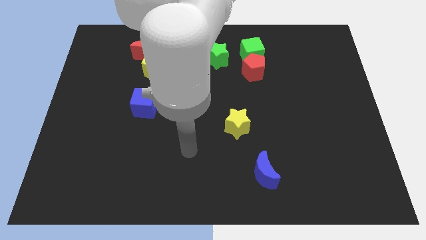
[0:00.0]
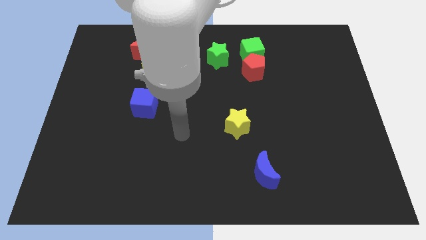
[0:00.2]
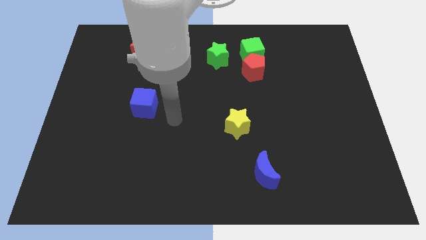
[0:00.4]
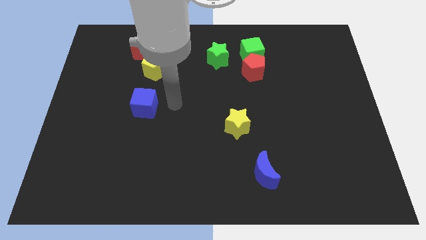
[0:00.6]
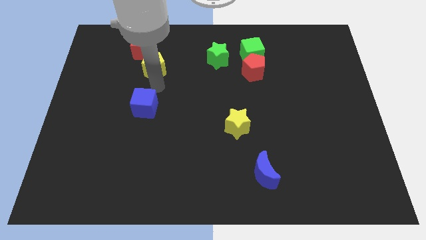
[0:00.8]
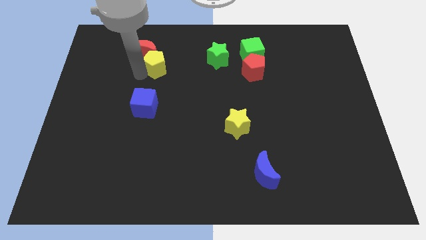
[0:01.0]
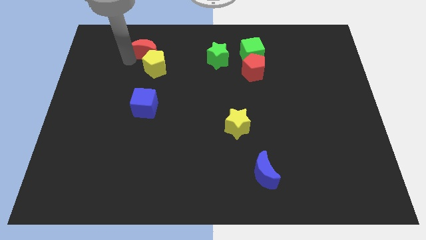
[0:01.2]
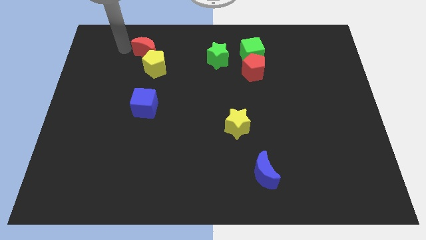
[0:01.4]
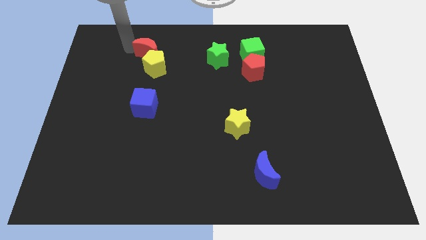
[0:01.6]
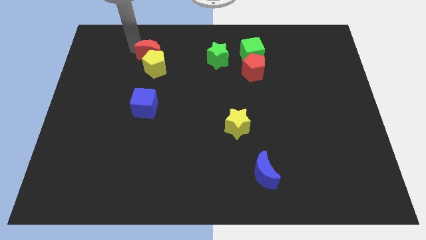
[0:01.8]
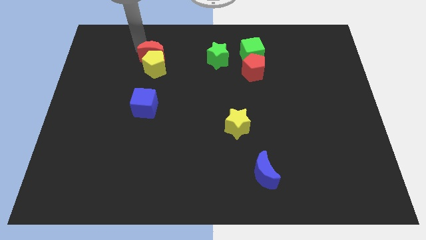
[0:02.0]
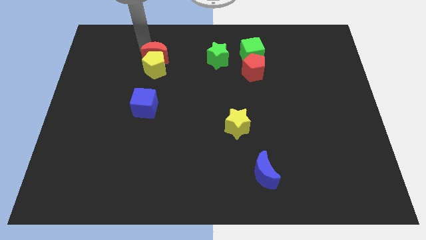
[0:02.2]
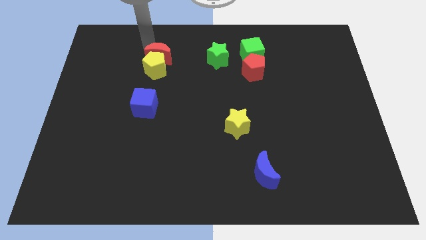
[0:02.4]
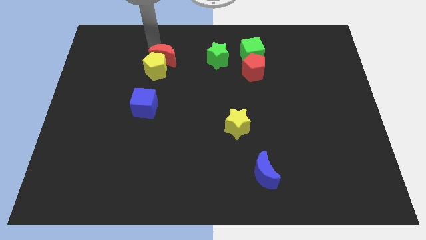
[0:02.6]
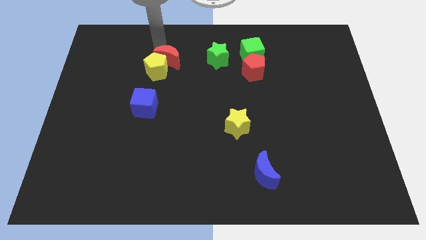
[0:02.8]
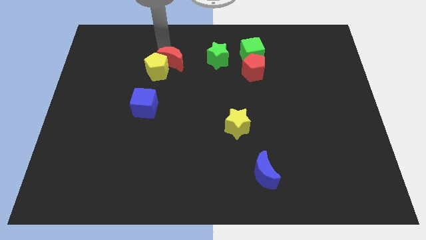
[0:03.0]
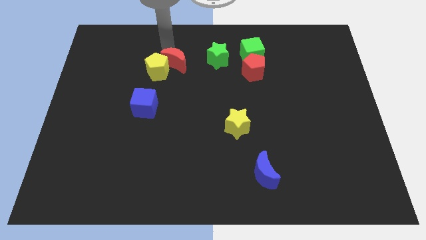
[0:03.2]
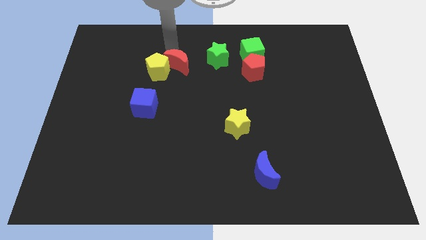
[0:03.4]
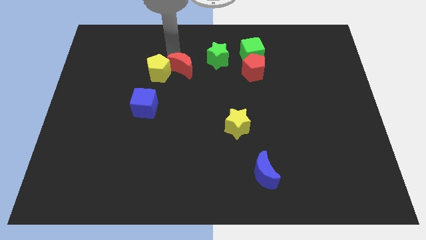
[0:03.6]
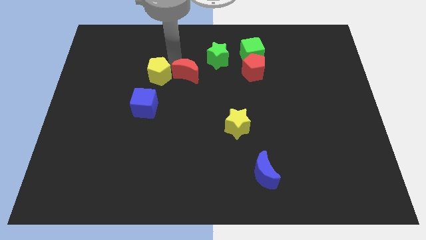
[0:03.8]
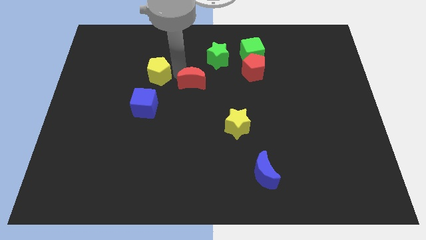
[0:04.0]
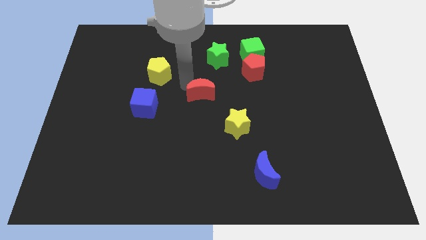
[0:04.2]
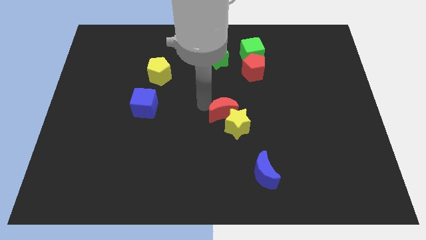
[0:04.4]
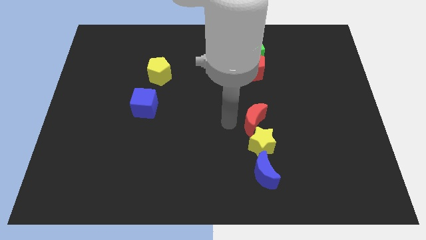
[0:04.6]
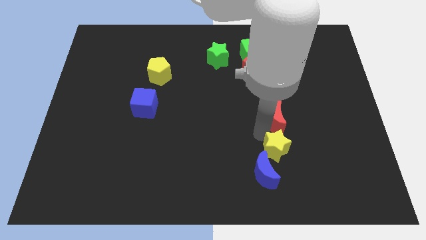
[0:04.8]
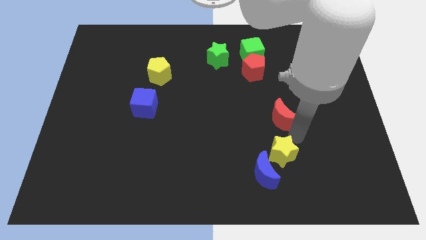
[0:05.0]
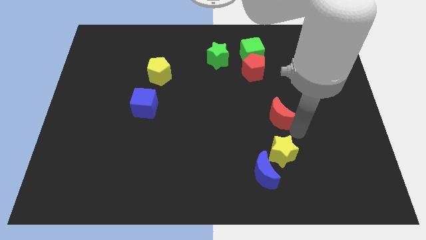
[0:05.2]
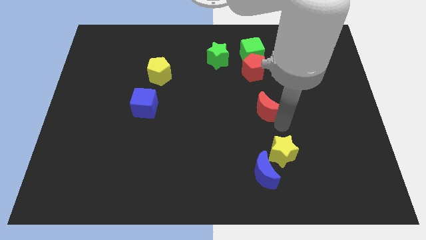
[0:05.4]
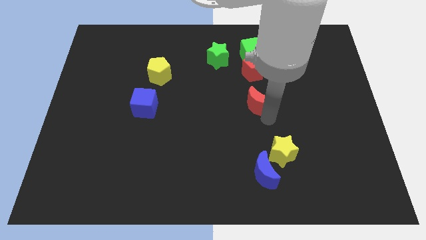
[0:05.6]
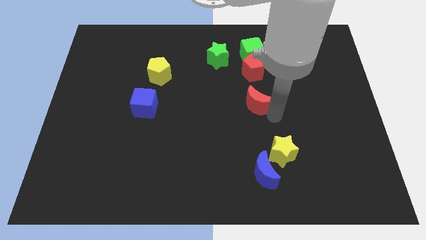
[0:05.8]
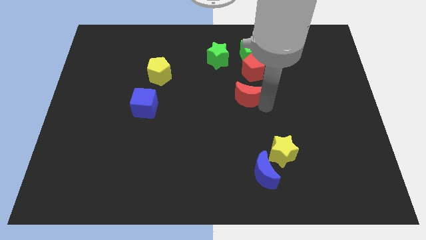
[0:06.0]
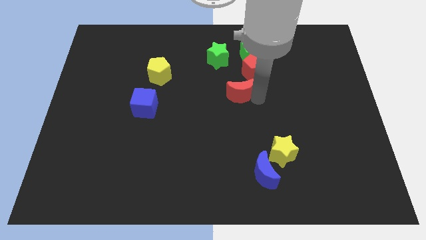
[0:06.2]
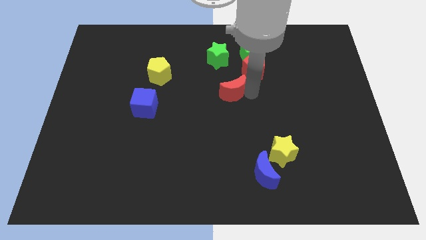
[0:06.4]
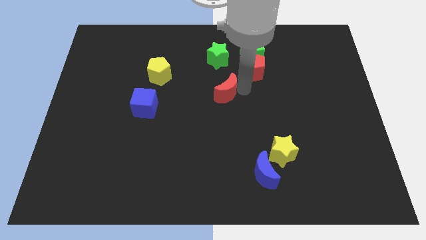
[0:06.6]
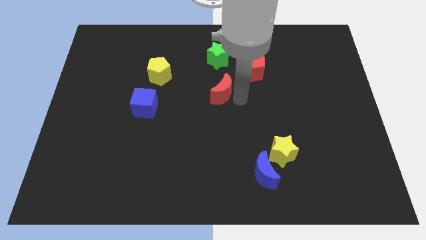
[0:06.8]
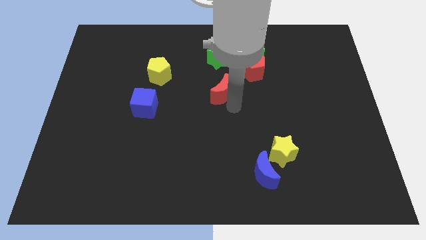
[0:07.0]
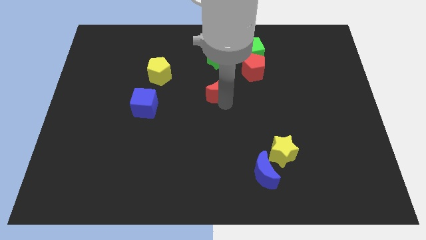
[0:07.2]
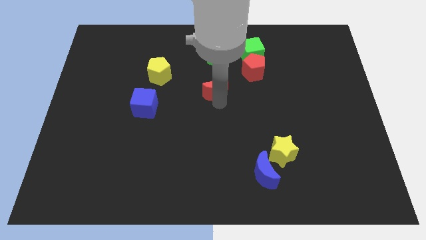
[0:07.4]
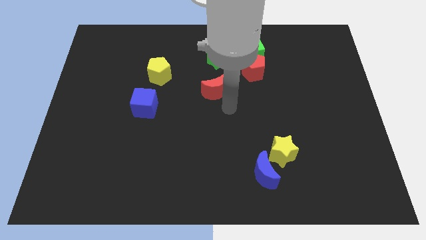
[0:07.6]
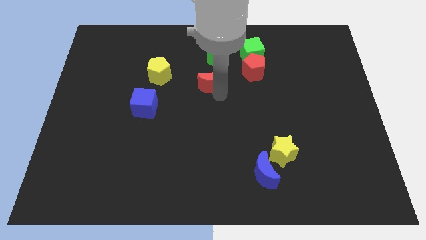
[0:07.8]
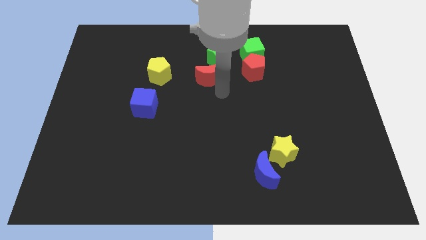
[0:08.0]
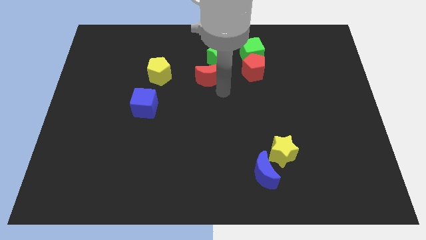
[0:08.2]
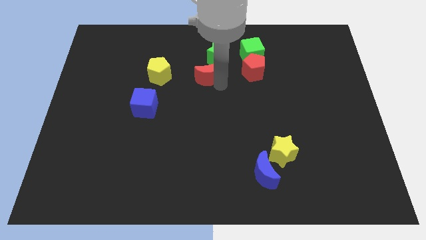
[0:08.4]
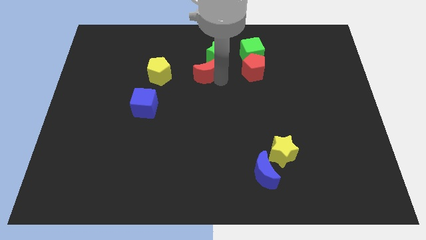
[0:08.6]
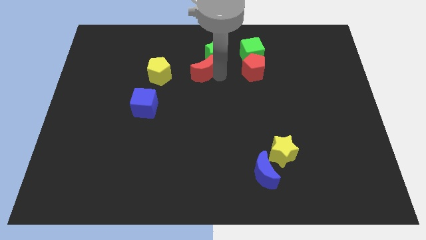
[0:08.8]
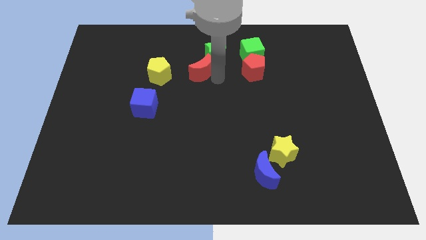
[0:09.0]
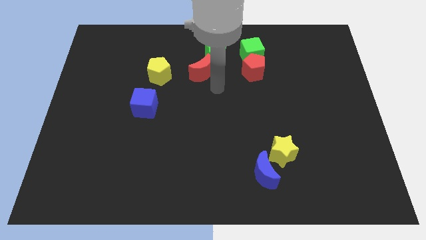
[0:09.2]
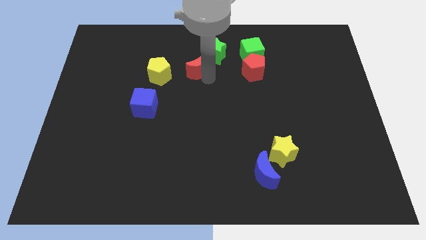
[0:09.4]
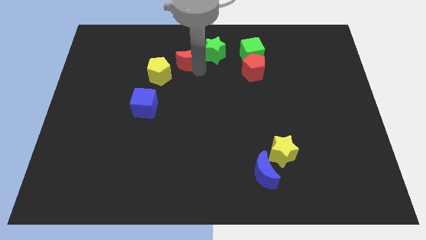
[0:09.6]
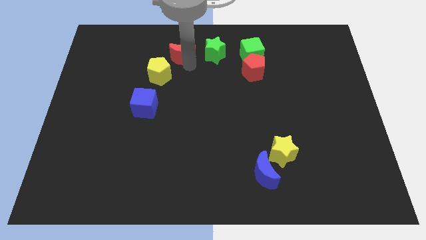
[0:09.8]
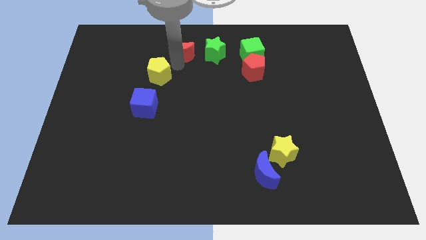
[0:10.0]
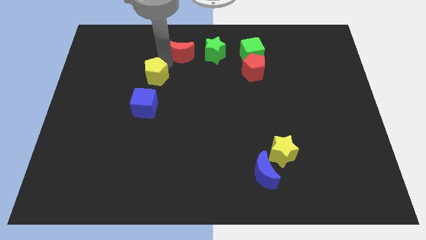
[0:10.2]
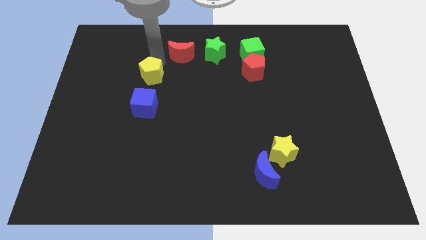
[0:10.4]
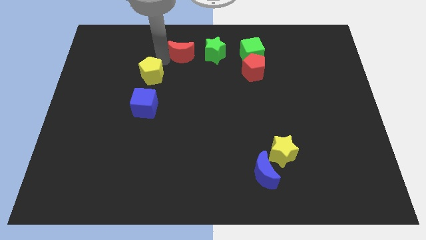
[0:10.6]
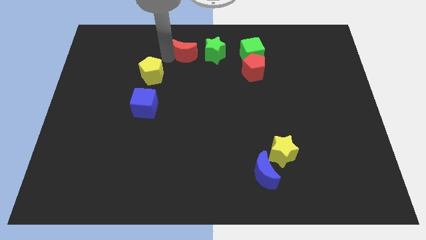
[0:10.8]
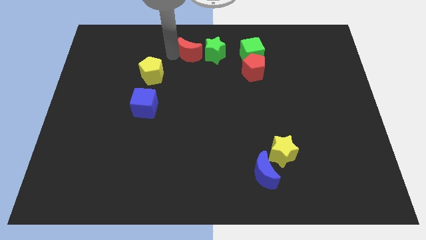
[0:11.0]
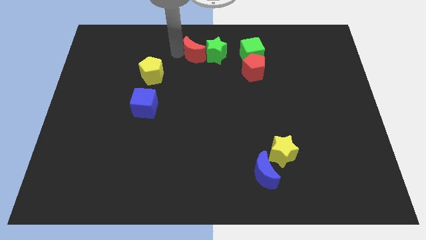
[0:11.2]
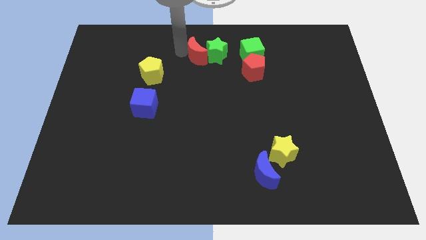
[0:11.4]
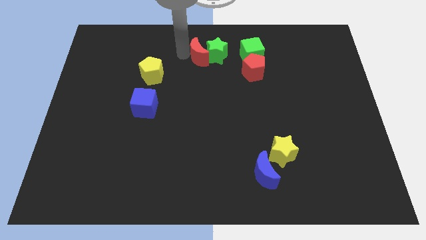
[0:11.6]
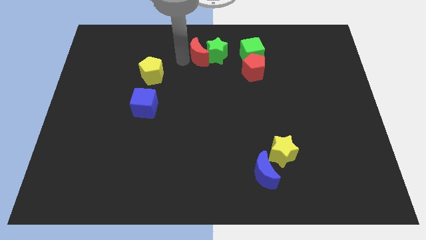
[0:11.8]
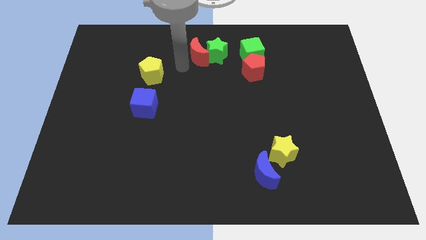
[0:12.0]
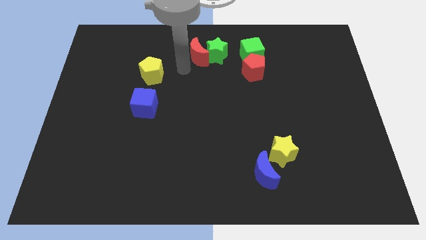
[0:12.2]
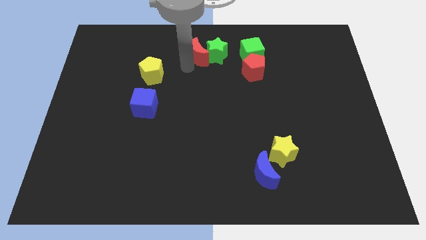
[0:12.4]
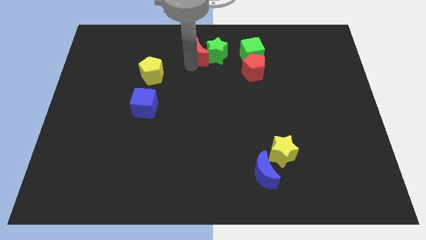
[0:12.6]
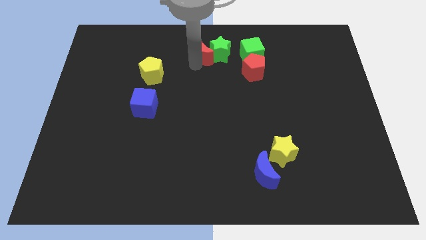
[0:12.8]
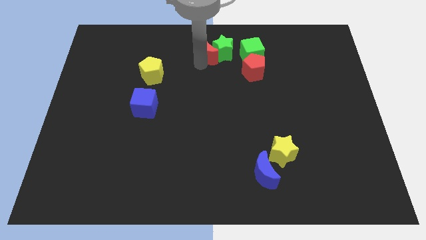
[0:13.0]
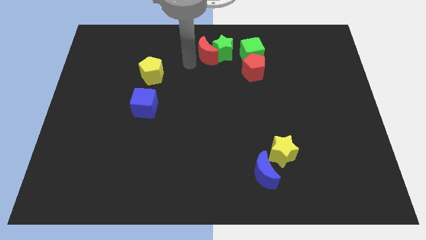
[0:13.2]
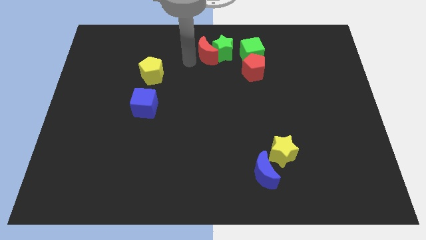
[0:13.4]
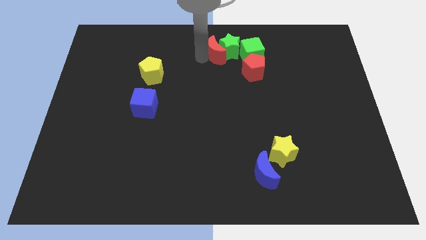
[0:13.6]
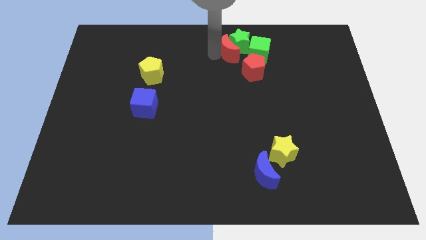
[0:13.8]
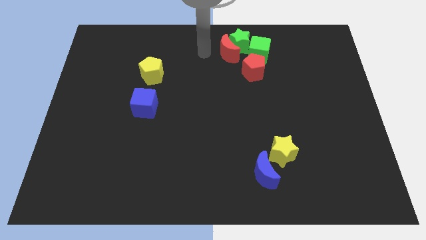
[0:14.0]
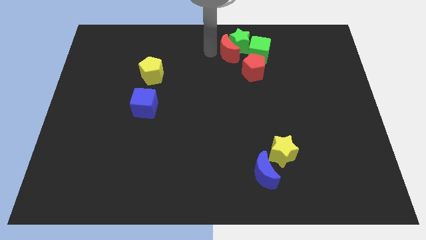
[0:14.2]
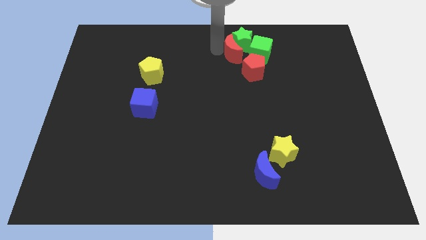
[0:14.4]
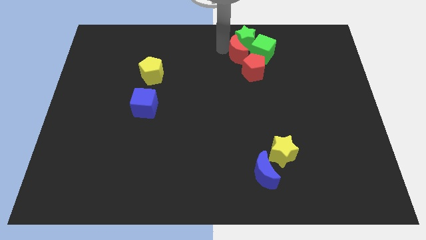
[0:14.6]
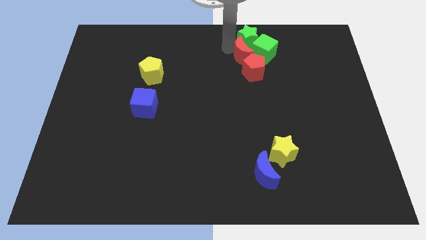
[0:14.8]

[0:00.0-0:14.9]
push the red moon to the green cube

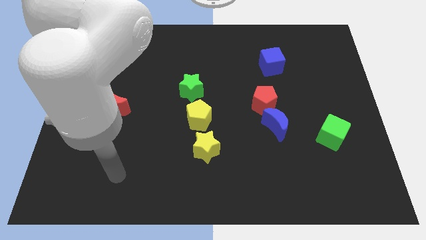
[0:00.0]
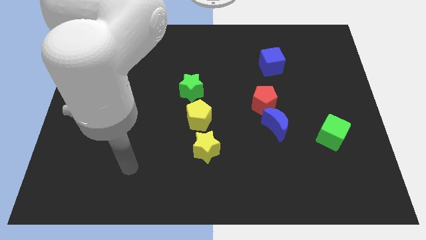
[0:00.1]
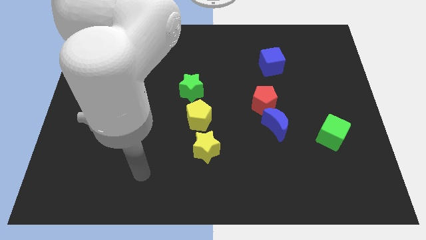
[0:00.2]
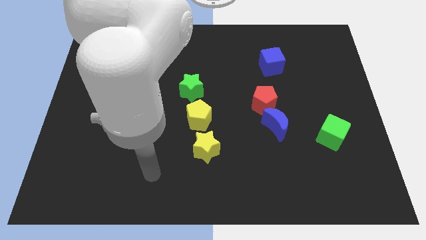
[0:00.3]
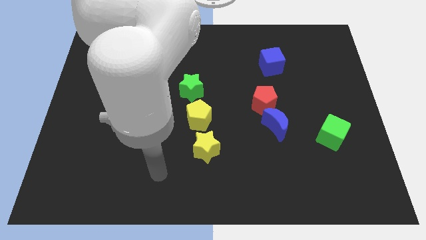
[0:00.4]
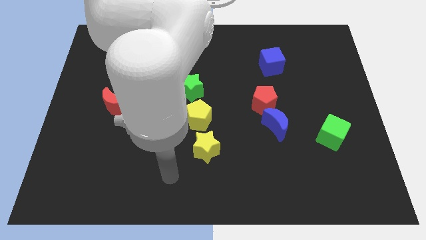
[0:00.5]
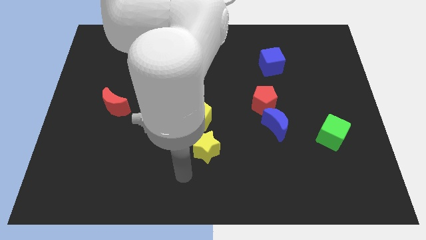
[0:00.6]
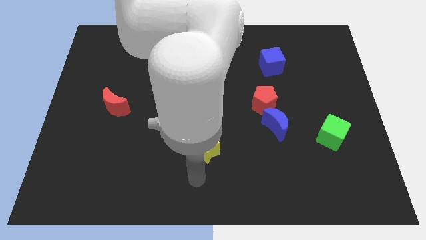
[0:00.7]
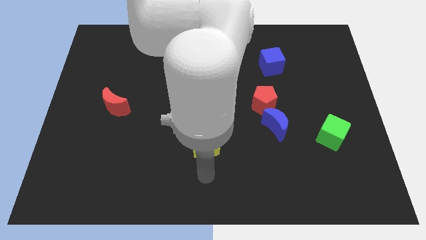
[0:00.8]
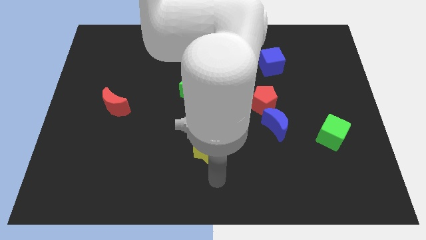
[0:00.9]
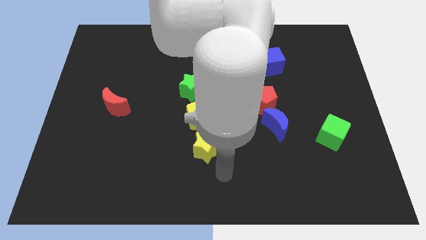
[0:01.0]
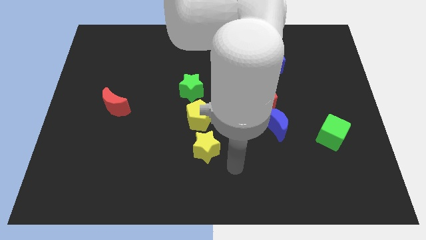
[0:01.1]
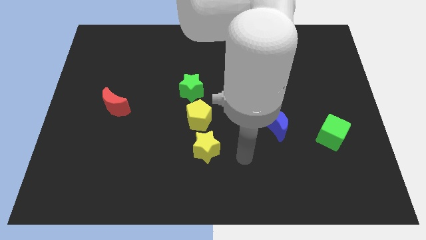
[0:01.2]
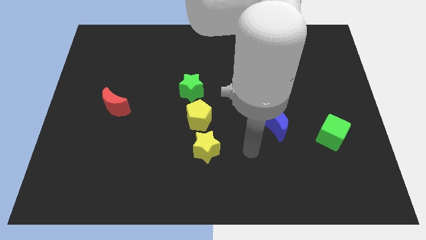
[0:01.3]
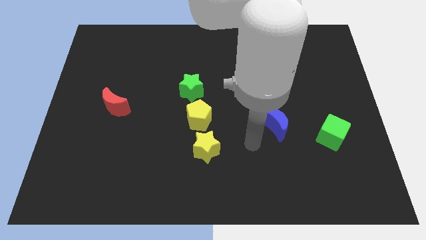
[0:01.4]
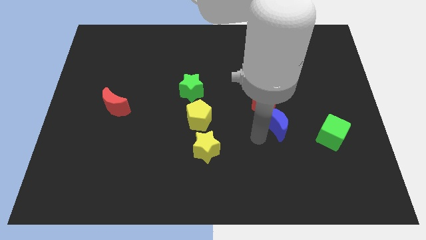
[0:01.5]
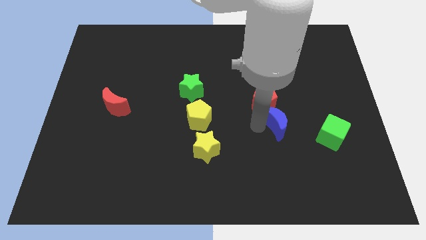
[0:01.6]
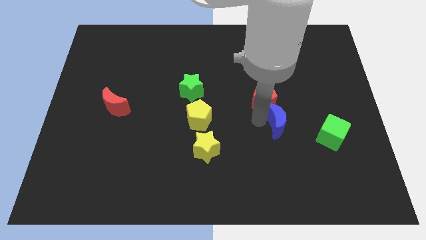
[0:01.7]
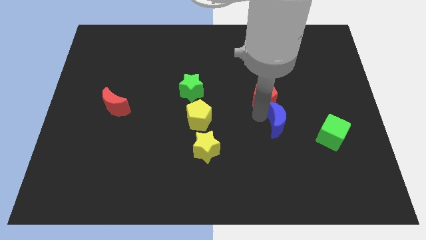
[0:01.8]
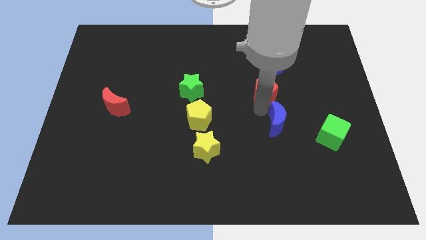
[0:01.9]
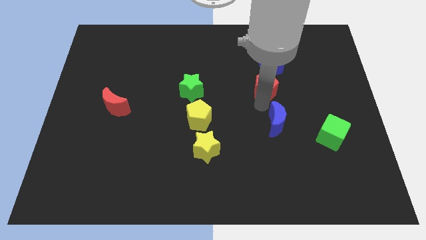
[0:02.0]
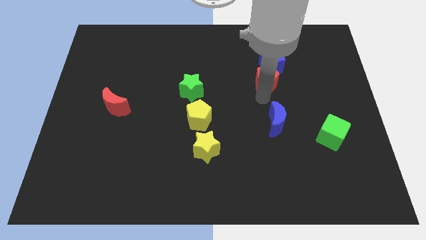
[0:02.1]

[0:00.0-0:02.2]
put the red pentagon to the blue cube
